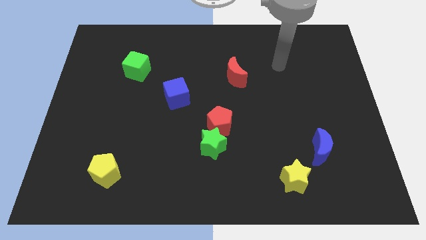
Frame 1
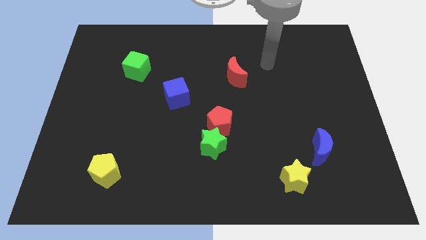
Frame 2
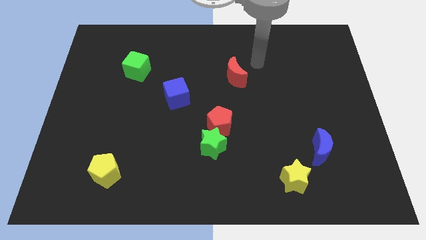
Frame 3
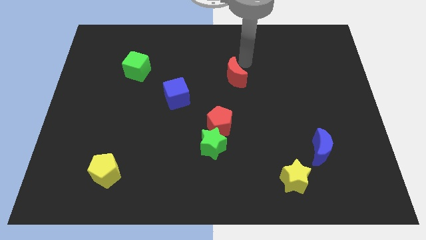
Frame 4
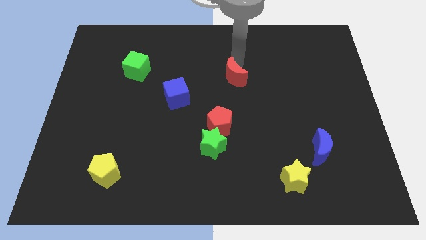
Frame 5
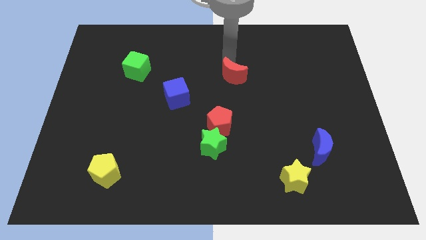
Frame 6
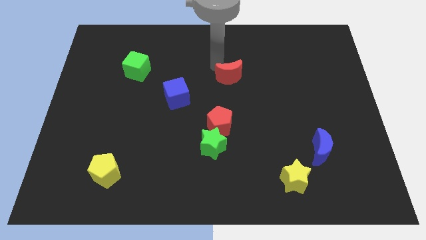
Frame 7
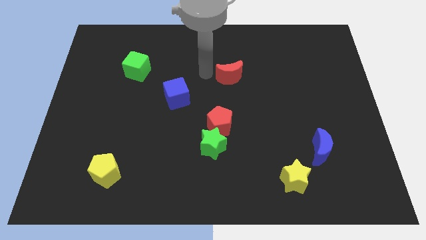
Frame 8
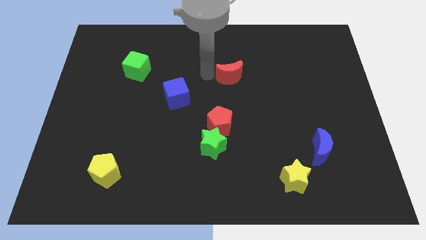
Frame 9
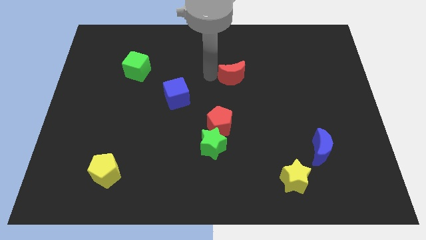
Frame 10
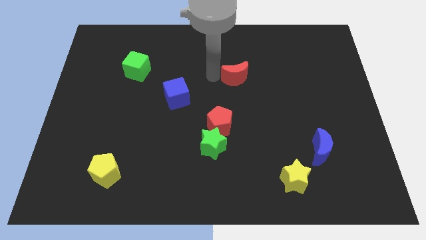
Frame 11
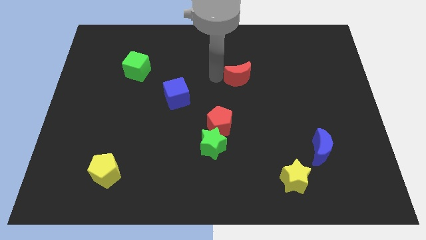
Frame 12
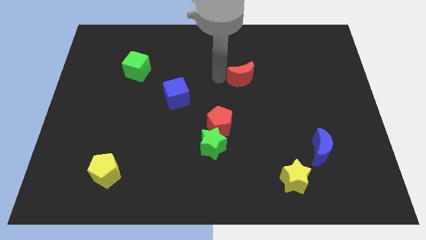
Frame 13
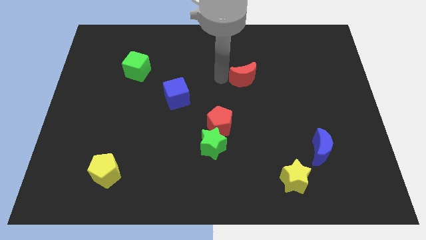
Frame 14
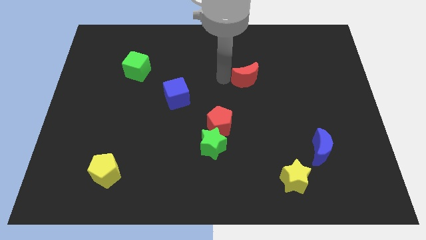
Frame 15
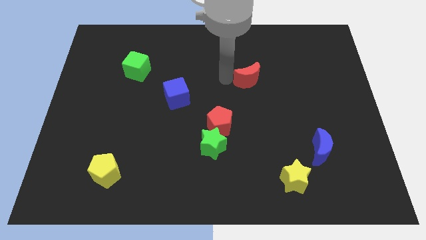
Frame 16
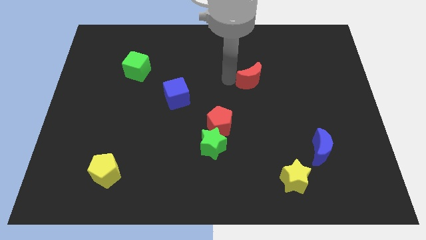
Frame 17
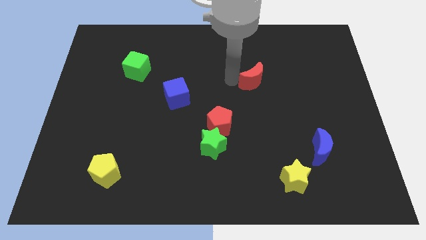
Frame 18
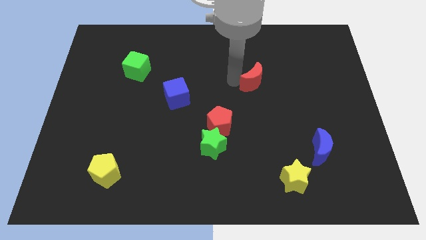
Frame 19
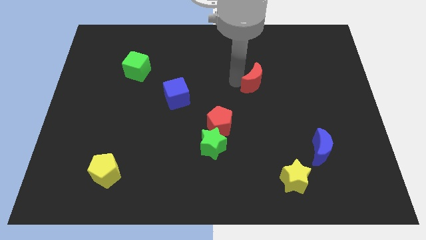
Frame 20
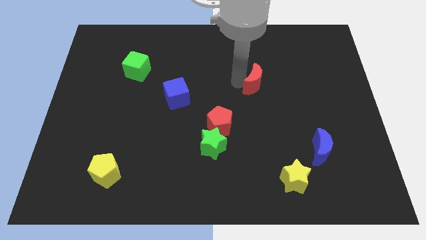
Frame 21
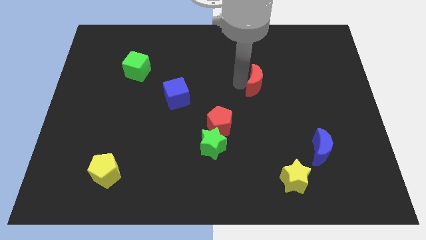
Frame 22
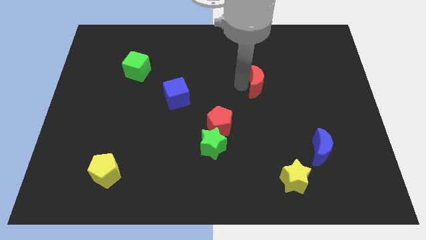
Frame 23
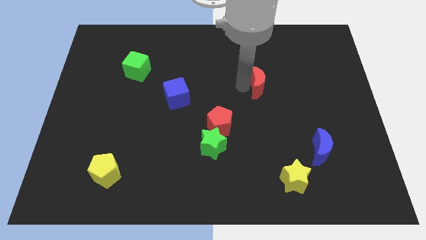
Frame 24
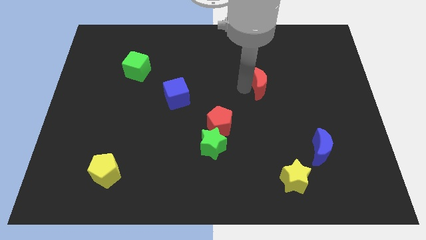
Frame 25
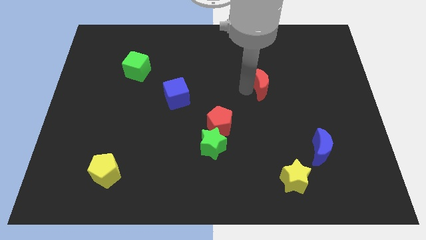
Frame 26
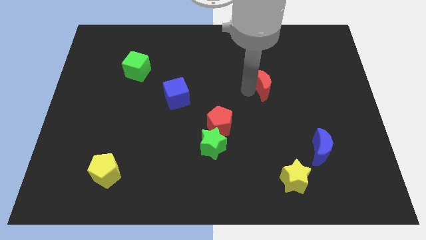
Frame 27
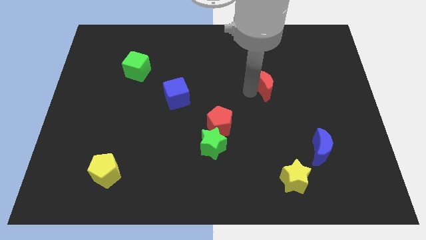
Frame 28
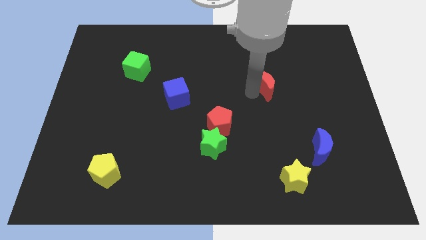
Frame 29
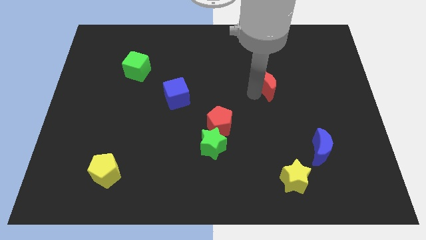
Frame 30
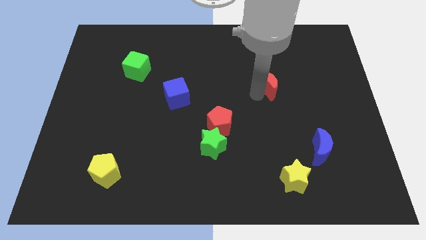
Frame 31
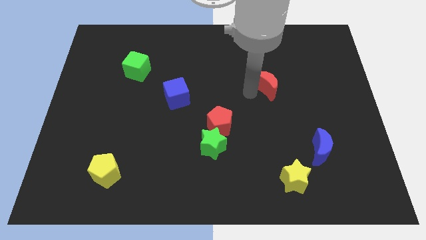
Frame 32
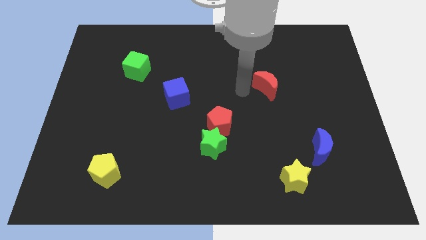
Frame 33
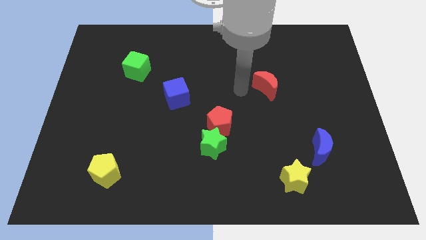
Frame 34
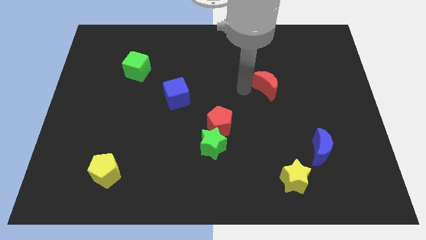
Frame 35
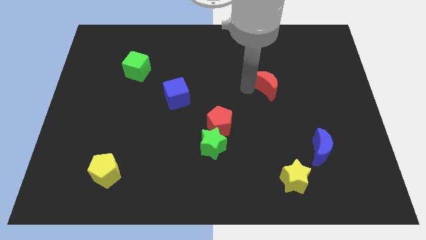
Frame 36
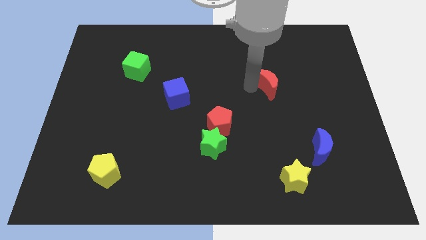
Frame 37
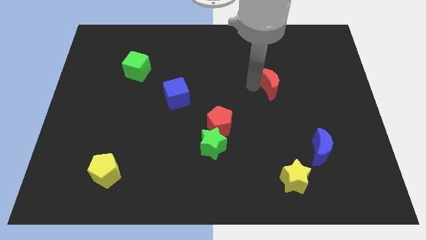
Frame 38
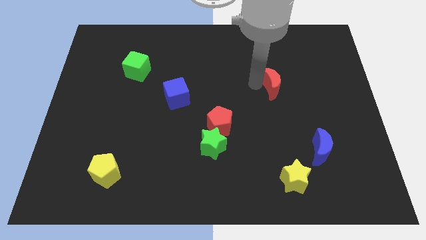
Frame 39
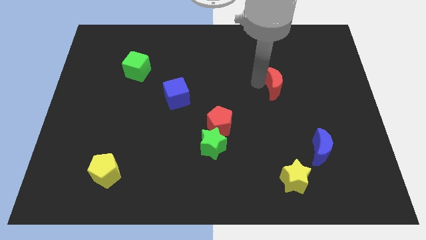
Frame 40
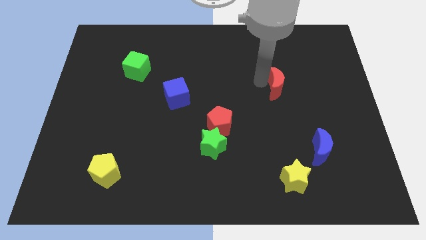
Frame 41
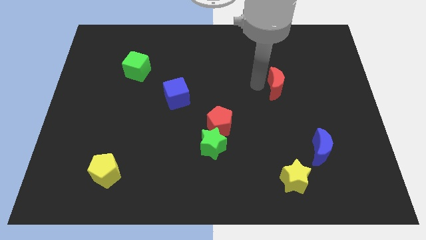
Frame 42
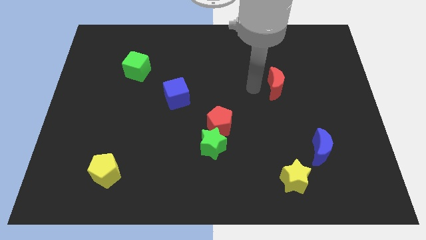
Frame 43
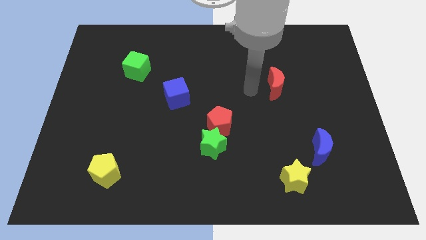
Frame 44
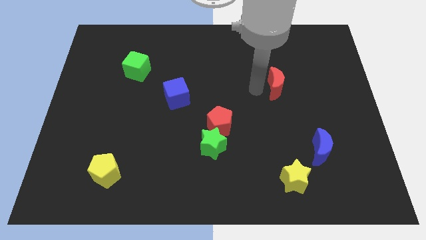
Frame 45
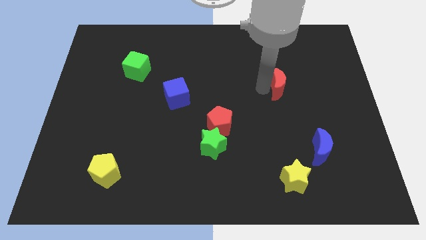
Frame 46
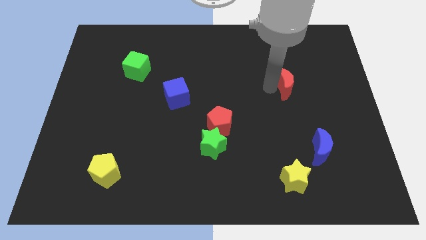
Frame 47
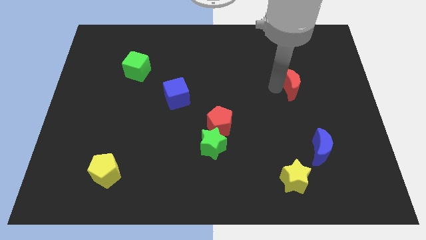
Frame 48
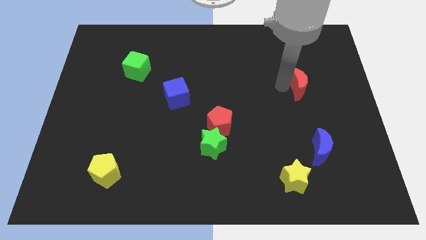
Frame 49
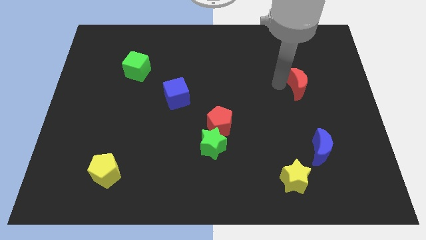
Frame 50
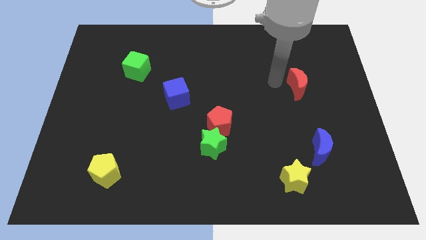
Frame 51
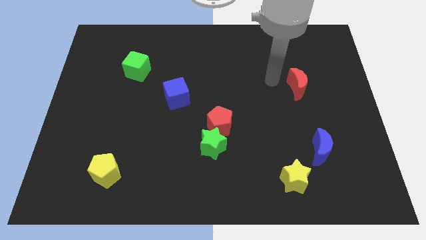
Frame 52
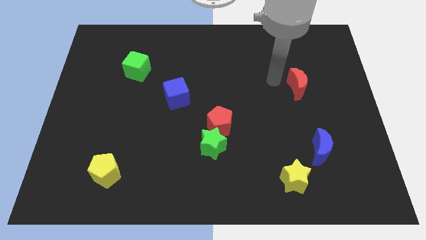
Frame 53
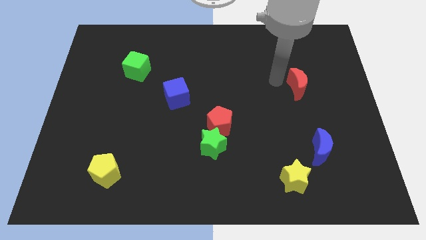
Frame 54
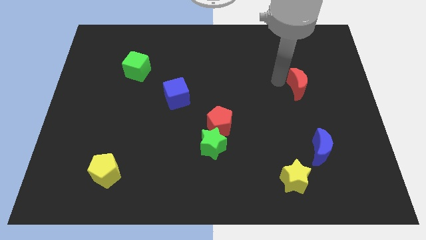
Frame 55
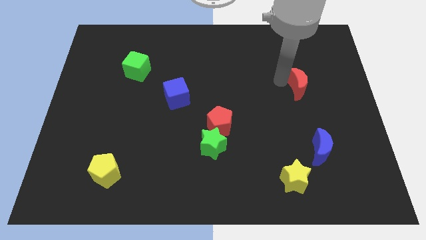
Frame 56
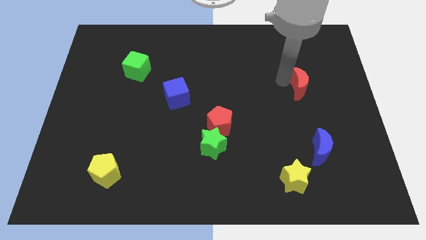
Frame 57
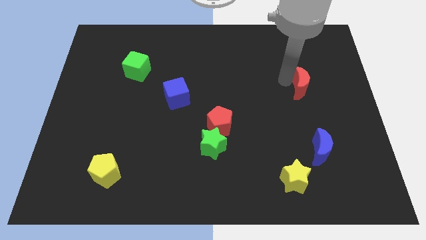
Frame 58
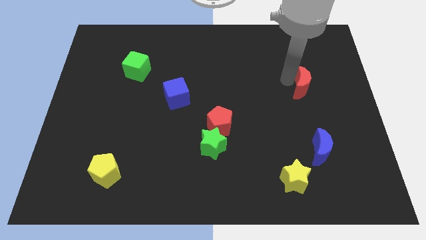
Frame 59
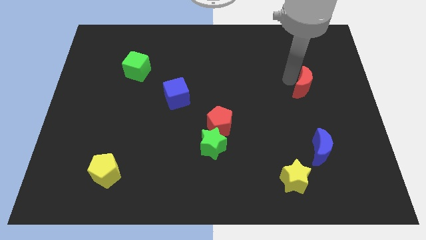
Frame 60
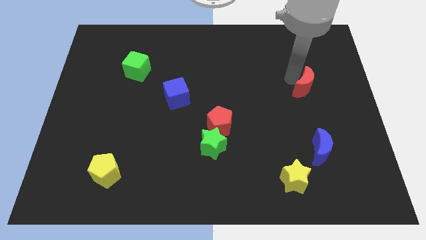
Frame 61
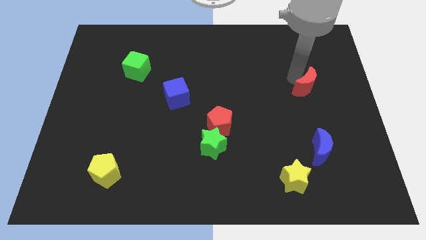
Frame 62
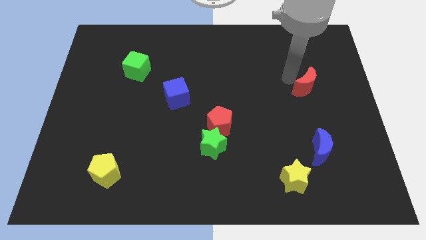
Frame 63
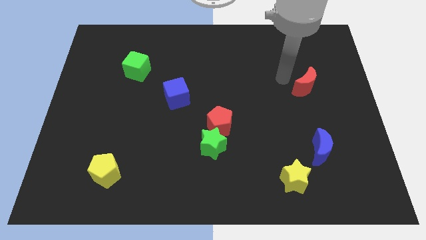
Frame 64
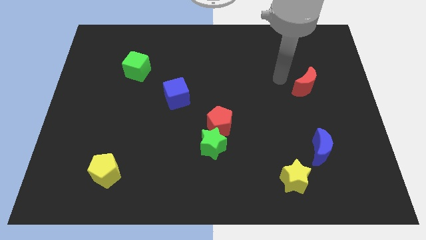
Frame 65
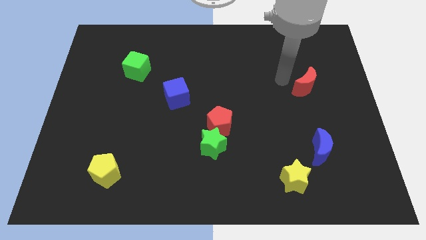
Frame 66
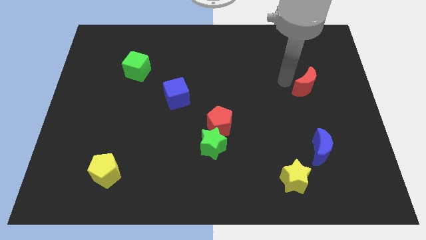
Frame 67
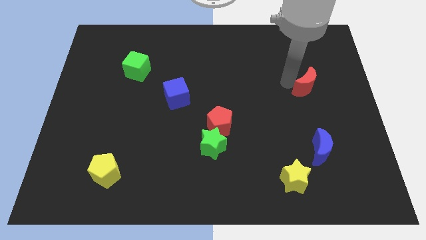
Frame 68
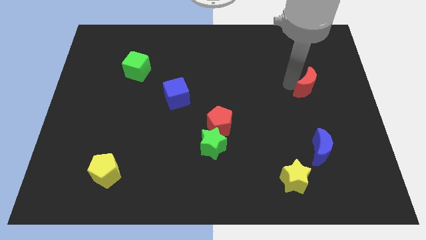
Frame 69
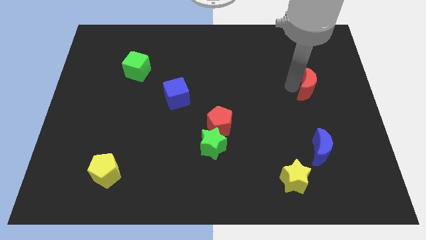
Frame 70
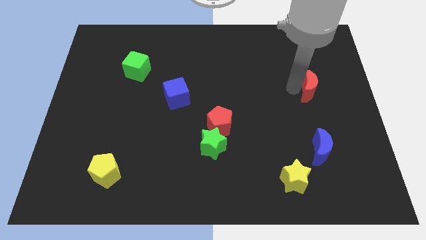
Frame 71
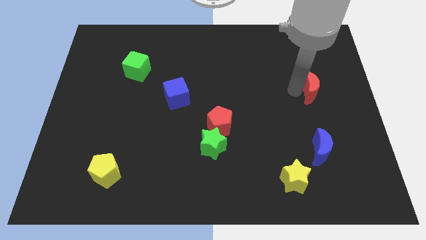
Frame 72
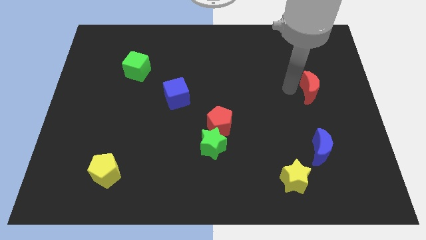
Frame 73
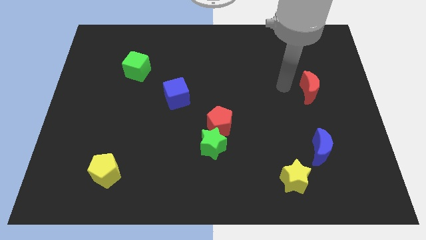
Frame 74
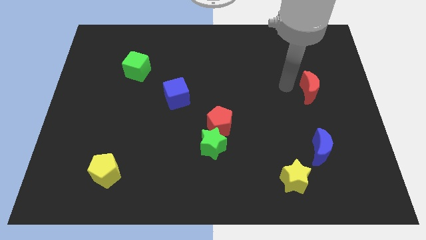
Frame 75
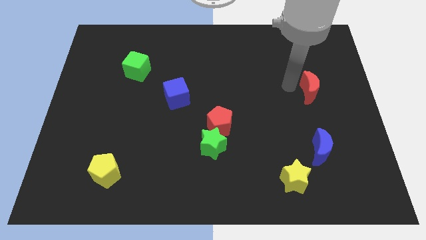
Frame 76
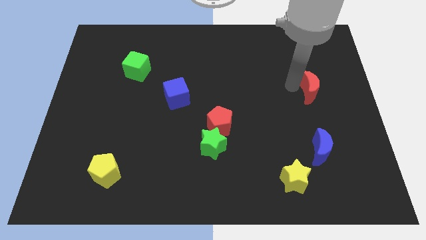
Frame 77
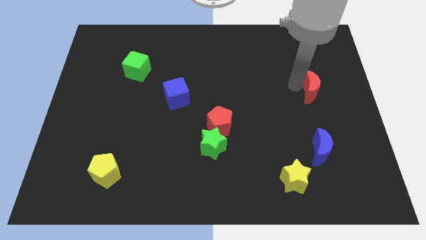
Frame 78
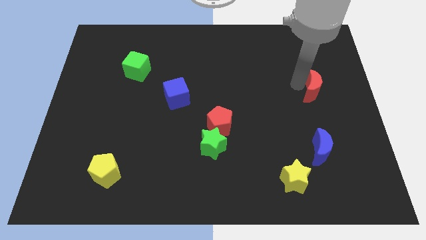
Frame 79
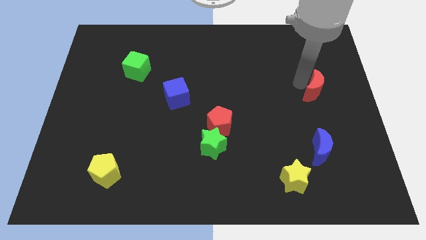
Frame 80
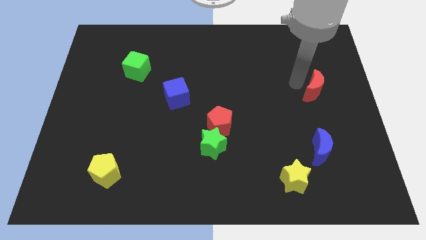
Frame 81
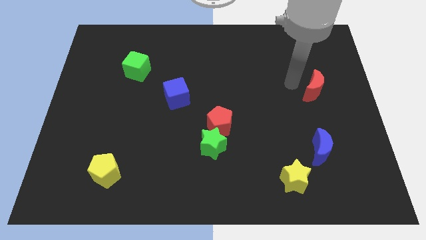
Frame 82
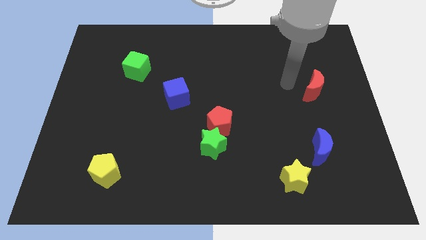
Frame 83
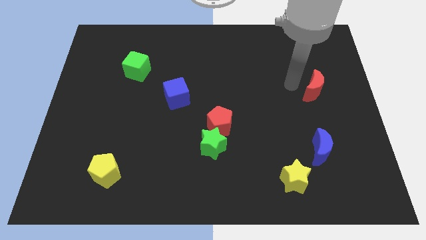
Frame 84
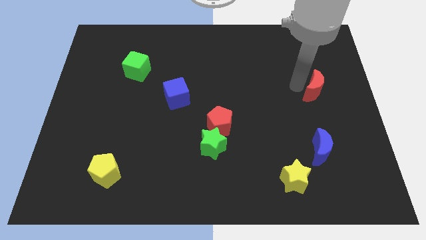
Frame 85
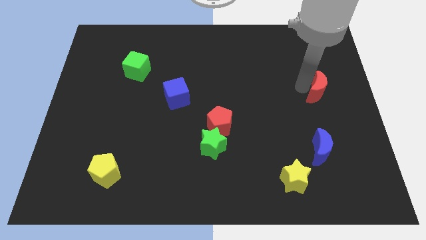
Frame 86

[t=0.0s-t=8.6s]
slide the red moon to the center right
